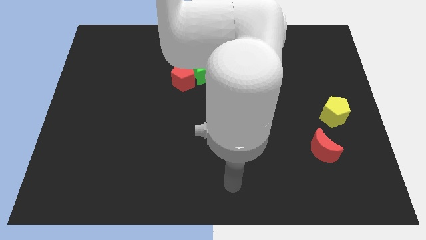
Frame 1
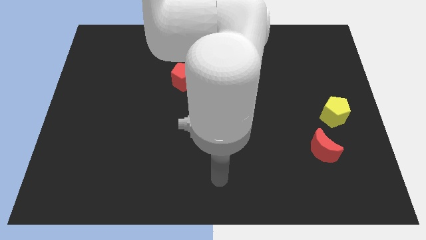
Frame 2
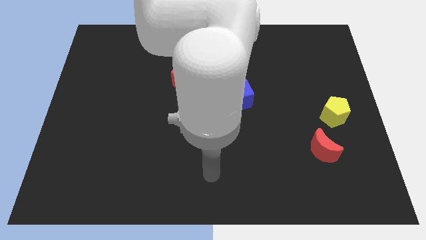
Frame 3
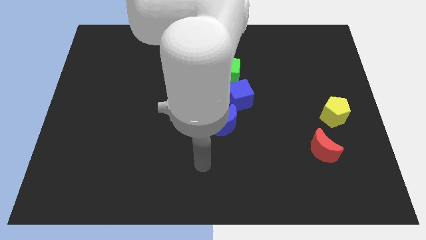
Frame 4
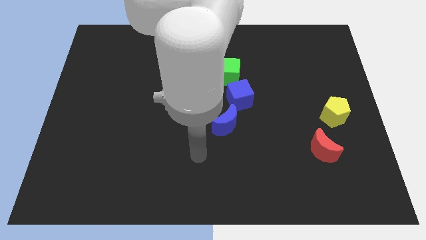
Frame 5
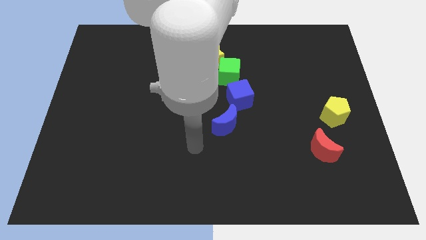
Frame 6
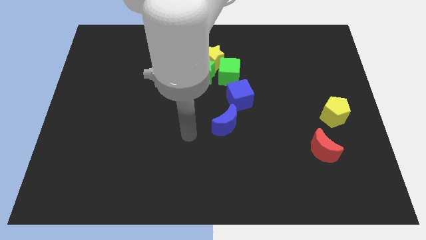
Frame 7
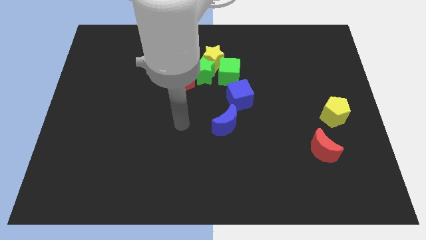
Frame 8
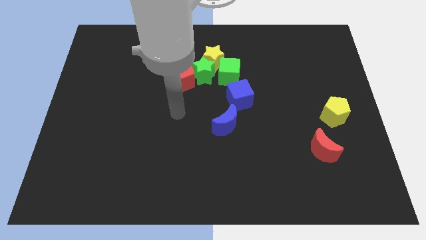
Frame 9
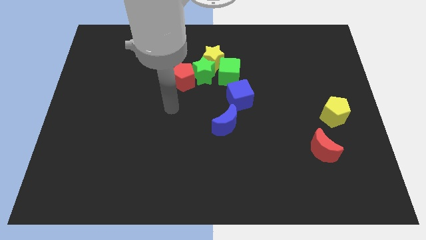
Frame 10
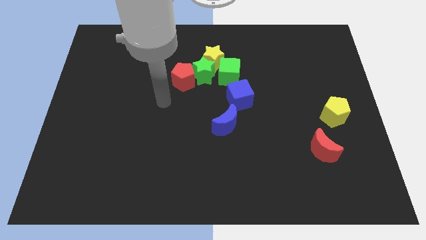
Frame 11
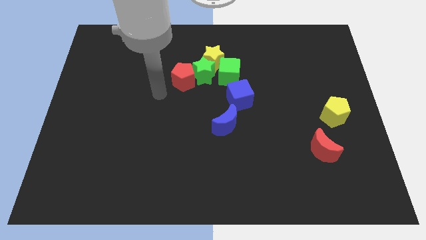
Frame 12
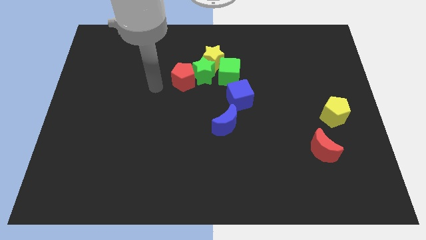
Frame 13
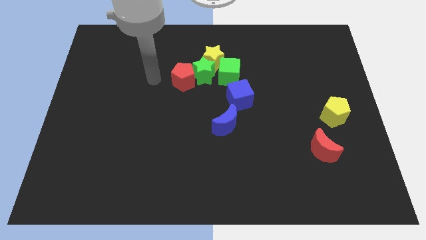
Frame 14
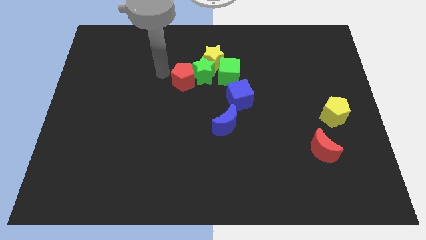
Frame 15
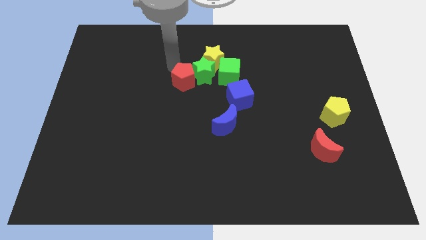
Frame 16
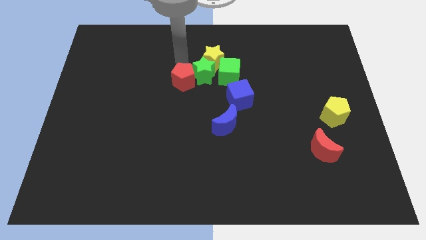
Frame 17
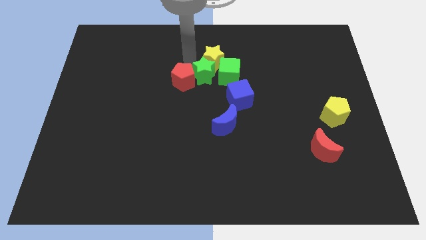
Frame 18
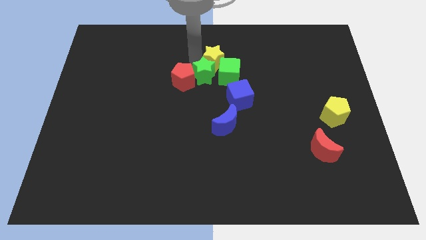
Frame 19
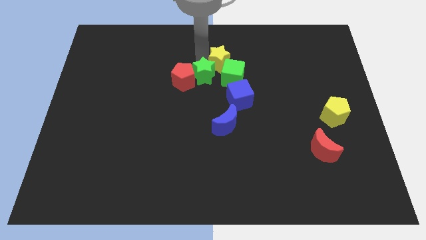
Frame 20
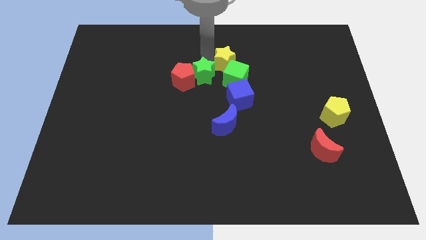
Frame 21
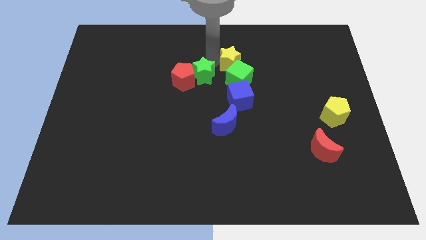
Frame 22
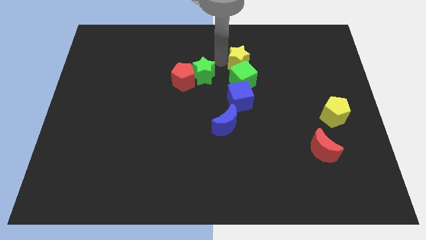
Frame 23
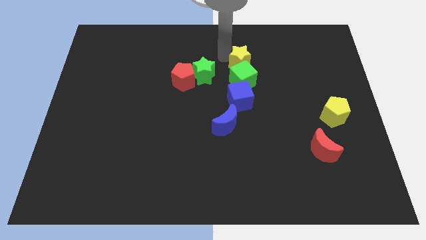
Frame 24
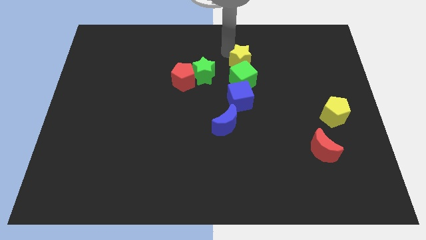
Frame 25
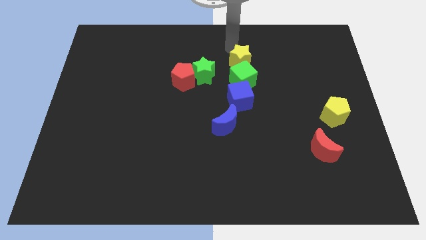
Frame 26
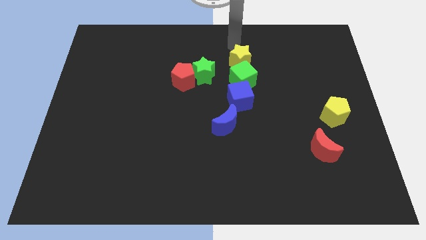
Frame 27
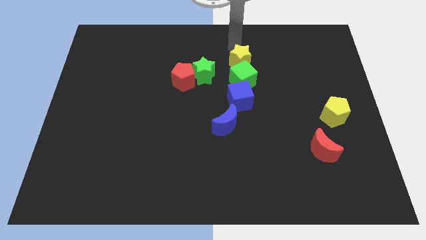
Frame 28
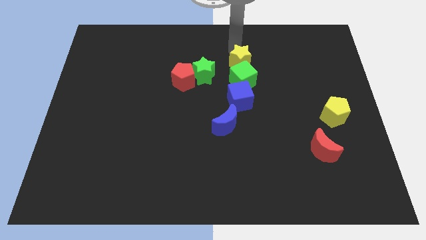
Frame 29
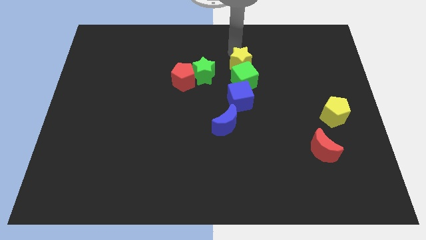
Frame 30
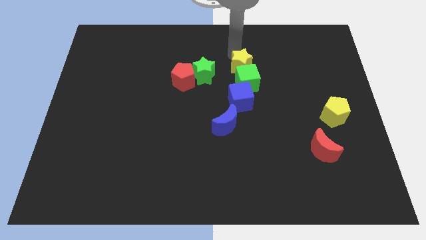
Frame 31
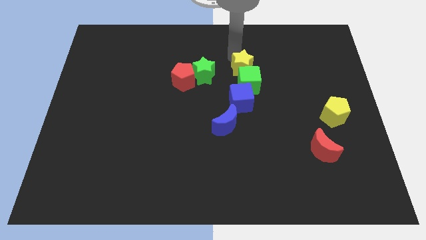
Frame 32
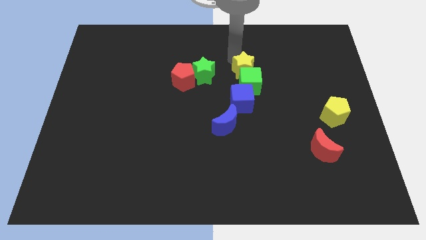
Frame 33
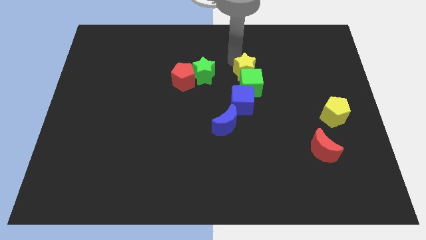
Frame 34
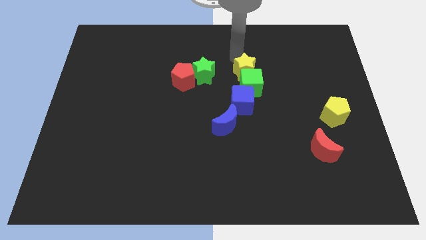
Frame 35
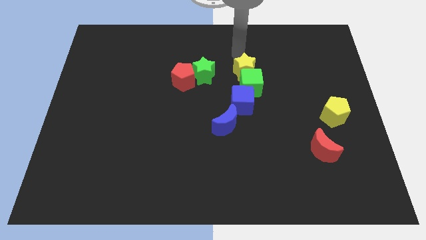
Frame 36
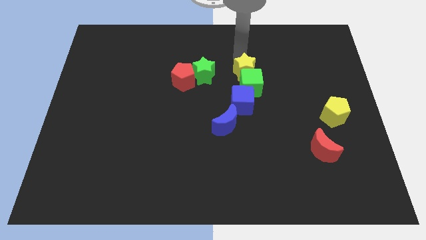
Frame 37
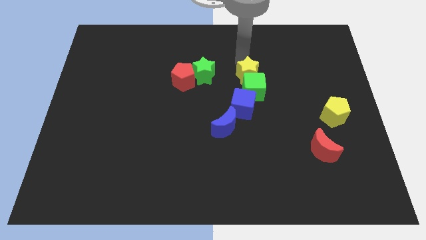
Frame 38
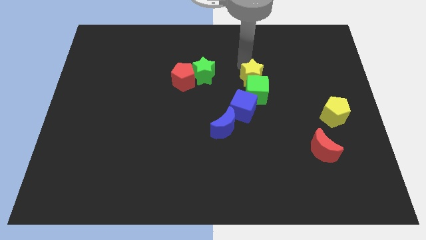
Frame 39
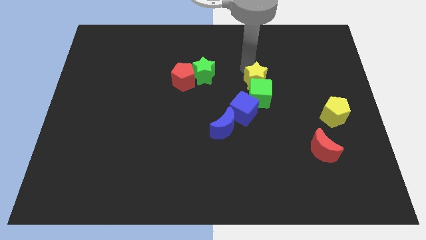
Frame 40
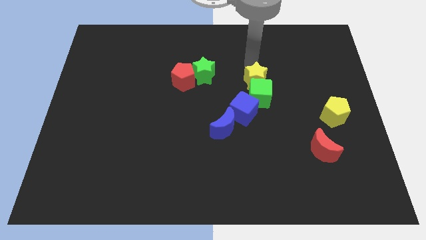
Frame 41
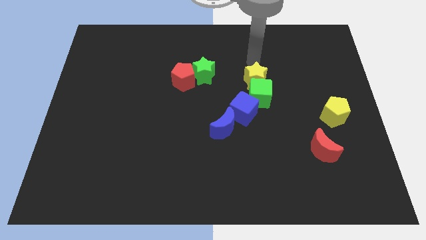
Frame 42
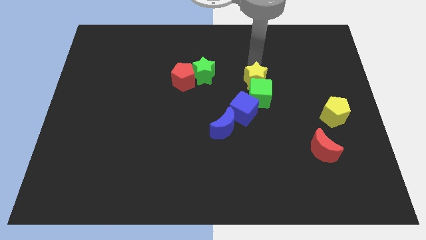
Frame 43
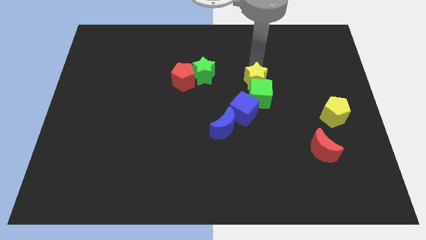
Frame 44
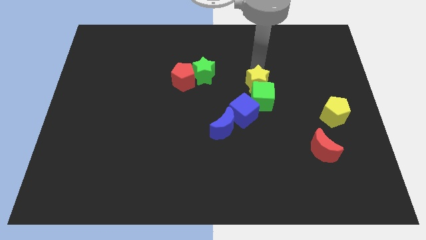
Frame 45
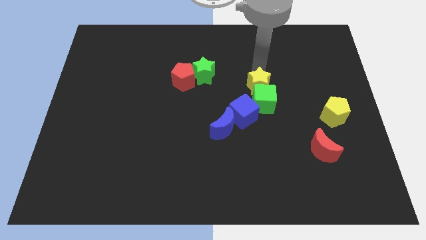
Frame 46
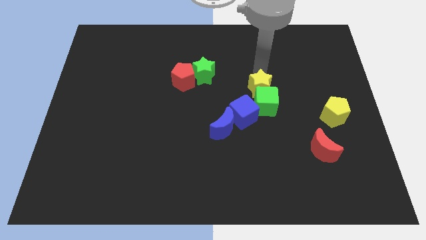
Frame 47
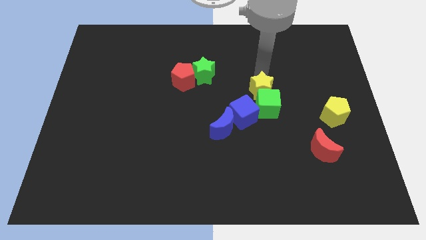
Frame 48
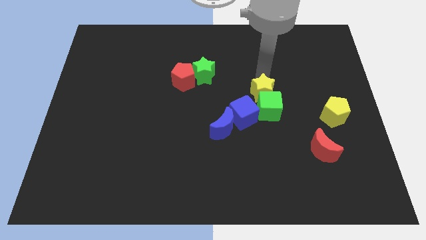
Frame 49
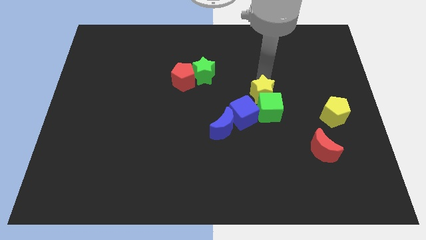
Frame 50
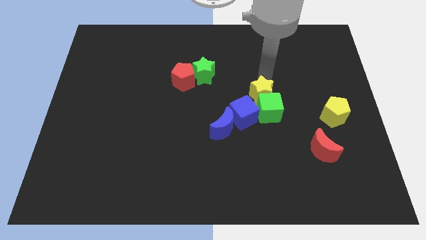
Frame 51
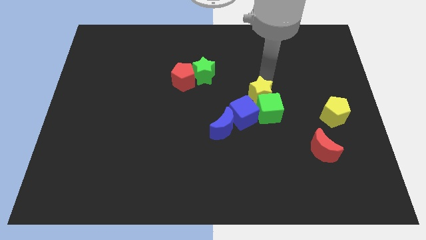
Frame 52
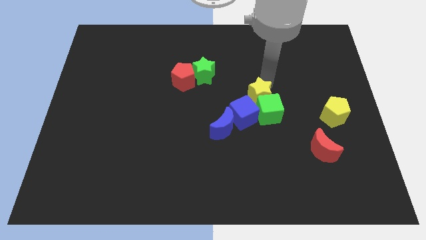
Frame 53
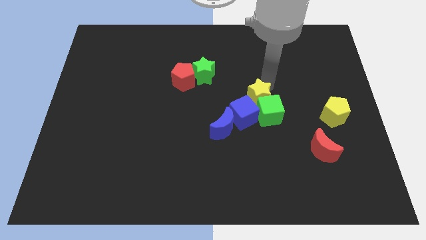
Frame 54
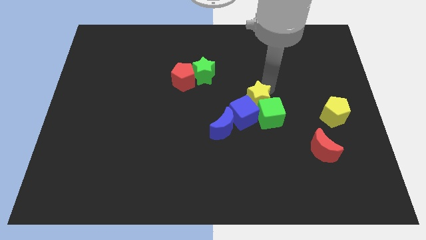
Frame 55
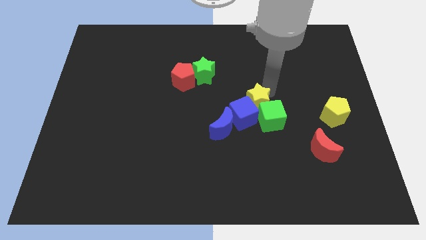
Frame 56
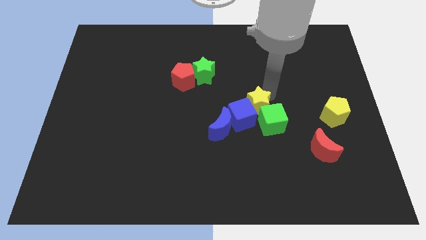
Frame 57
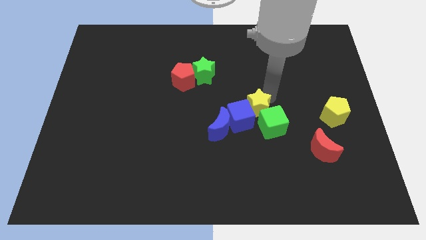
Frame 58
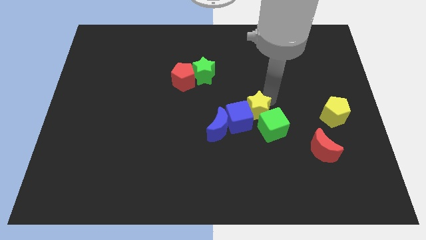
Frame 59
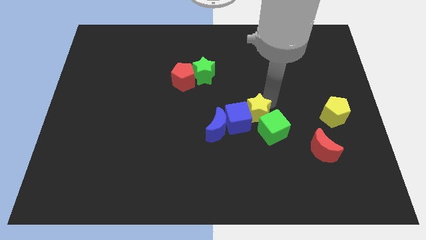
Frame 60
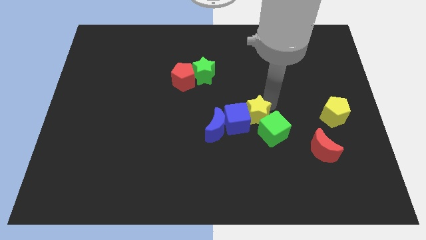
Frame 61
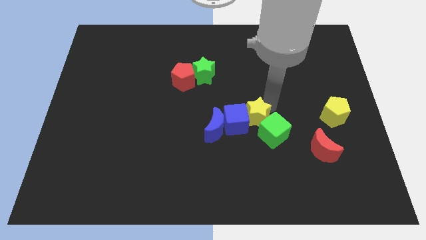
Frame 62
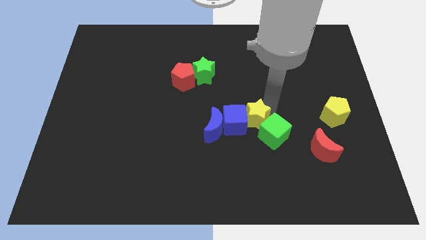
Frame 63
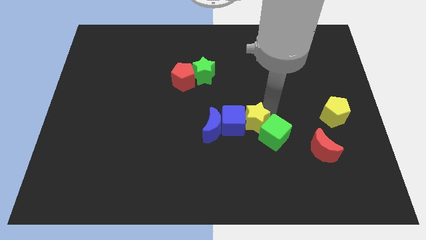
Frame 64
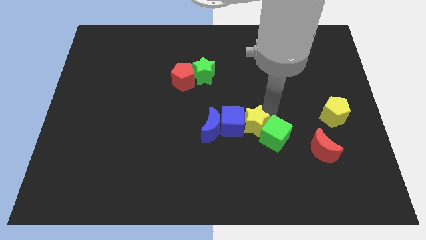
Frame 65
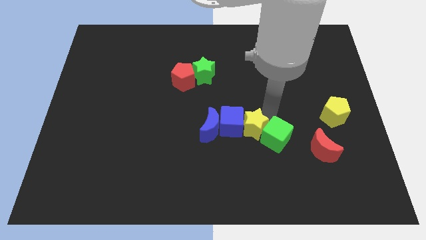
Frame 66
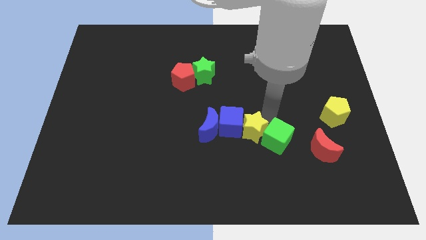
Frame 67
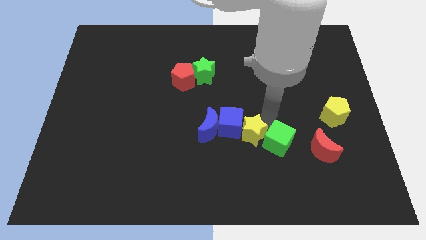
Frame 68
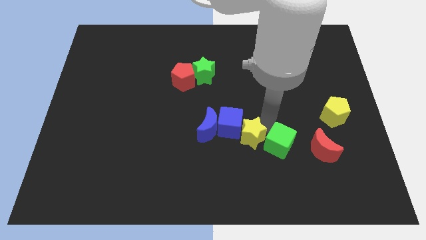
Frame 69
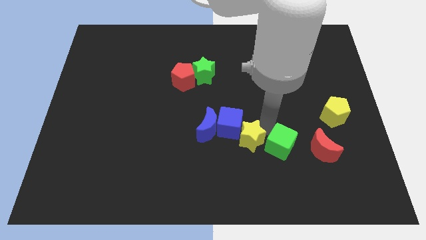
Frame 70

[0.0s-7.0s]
put the yellow star to the bottom right of the blue moon

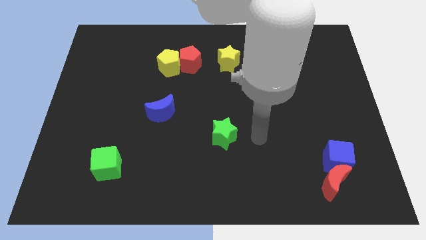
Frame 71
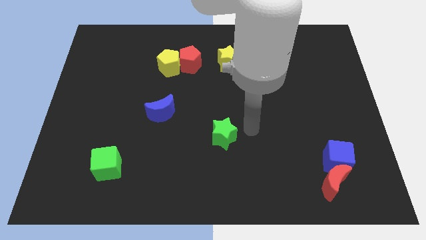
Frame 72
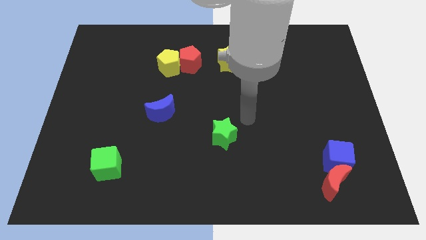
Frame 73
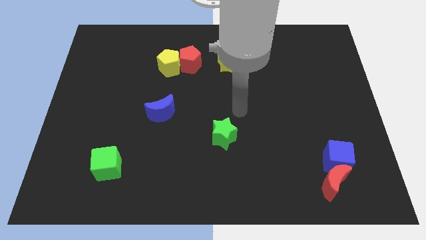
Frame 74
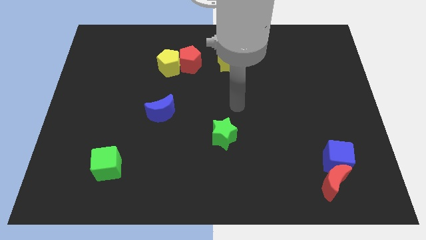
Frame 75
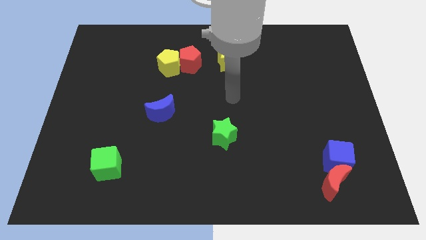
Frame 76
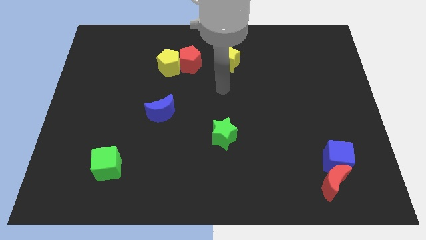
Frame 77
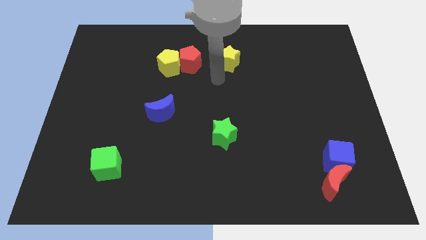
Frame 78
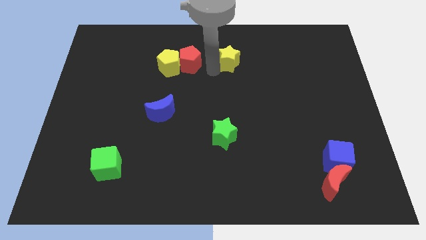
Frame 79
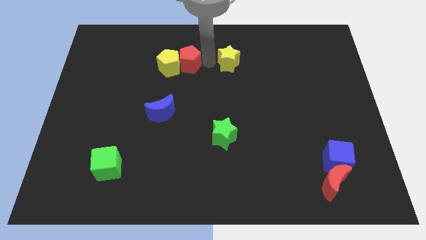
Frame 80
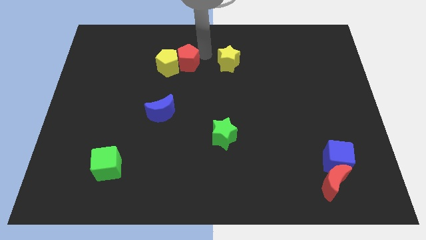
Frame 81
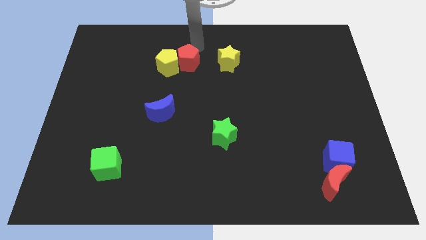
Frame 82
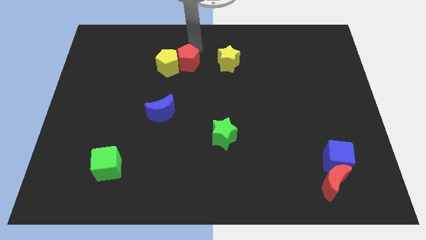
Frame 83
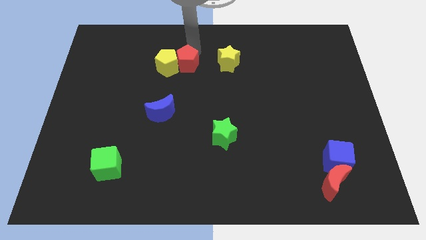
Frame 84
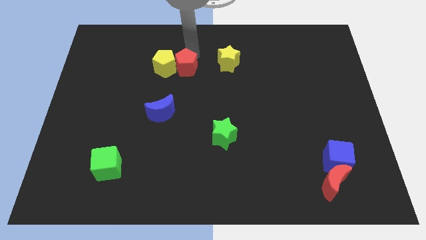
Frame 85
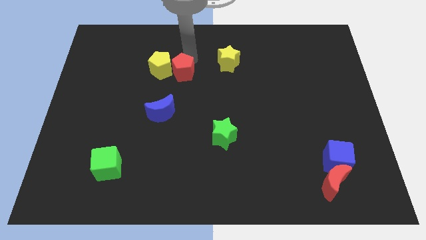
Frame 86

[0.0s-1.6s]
push the red pentagon to the top of the blue moon

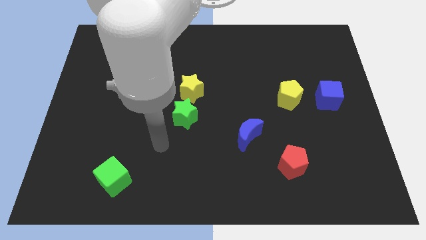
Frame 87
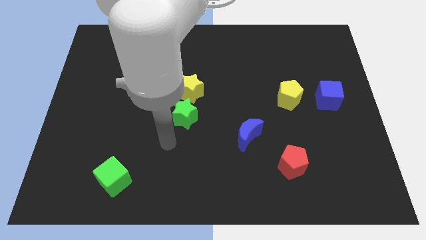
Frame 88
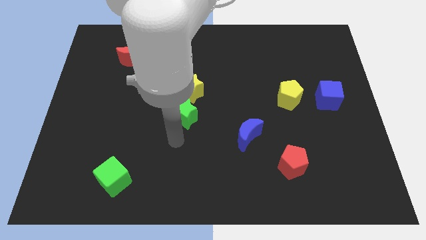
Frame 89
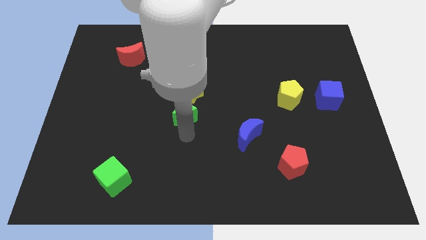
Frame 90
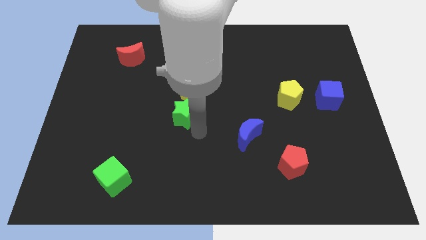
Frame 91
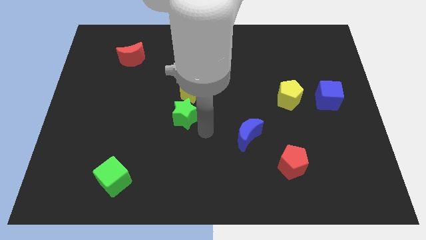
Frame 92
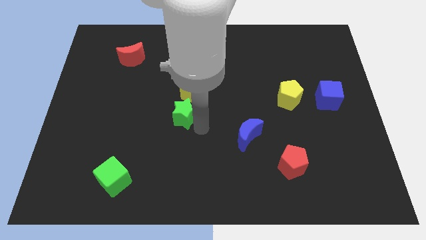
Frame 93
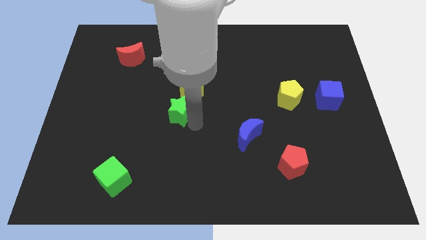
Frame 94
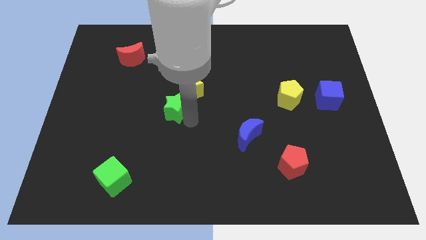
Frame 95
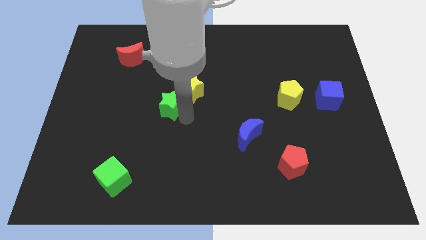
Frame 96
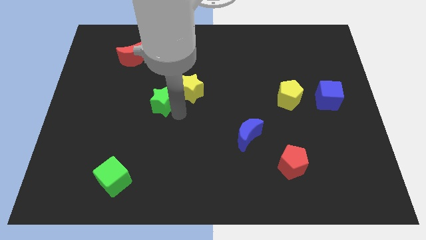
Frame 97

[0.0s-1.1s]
slide the green star just left of the yellow star
